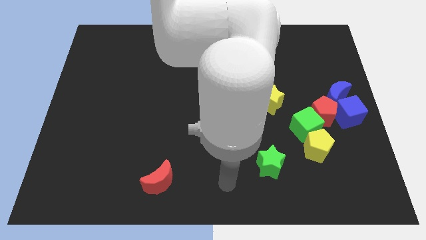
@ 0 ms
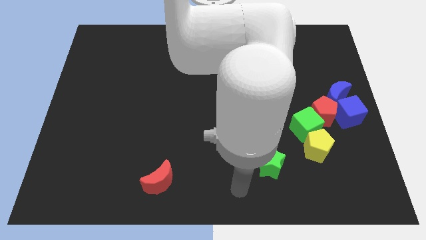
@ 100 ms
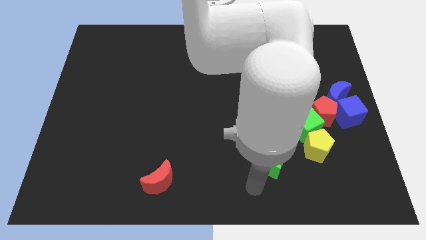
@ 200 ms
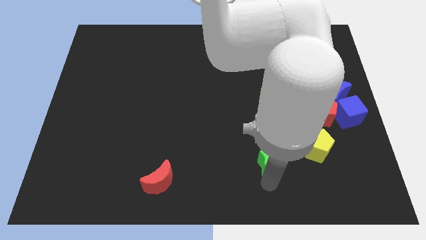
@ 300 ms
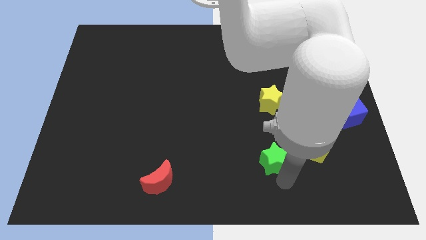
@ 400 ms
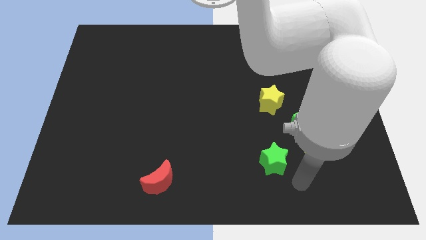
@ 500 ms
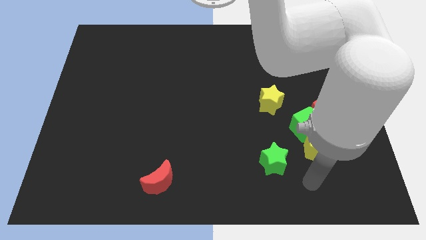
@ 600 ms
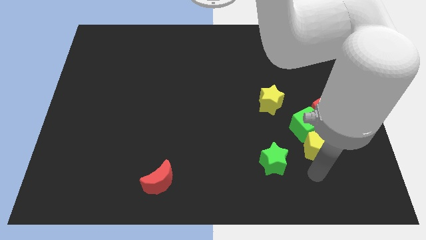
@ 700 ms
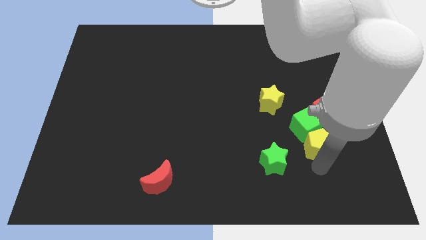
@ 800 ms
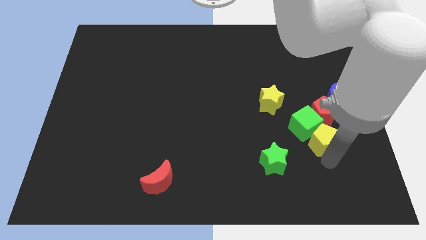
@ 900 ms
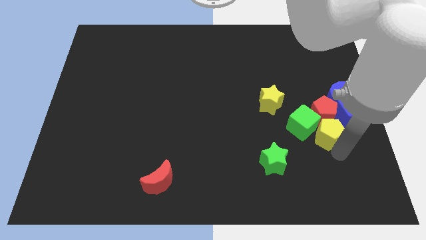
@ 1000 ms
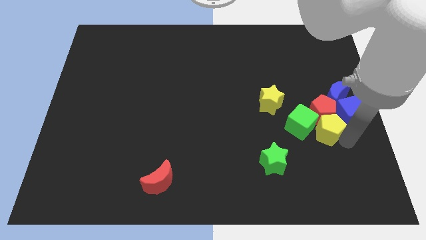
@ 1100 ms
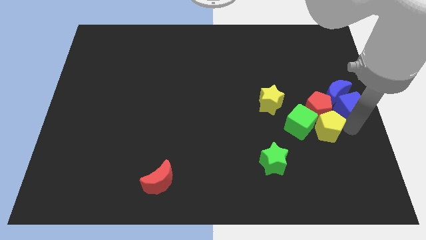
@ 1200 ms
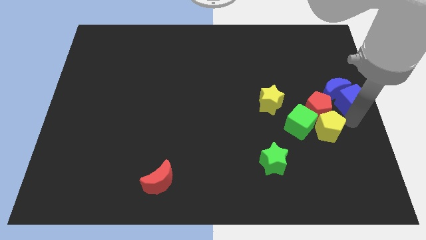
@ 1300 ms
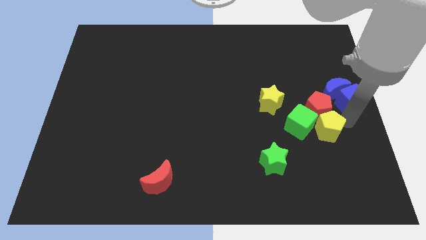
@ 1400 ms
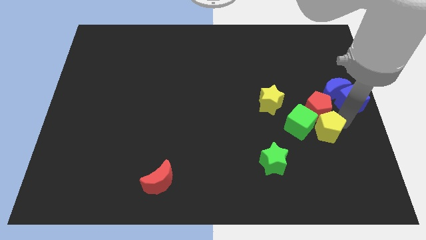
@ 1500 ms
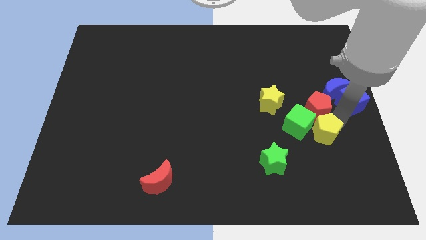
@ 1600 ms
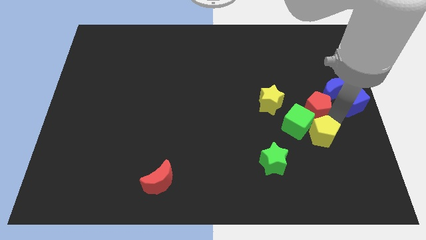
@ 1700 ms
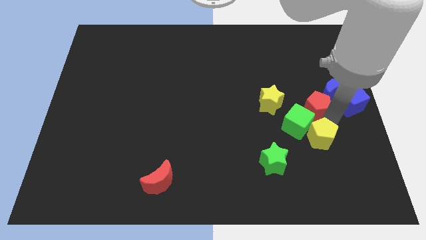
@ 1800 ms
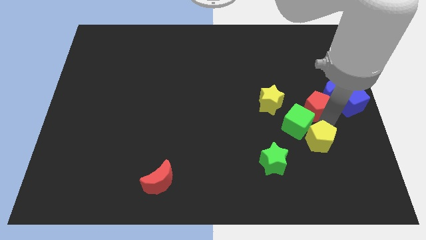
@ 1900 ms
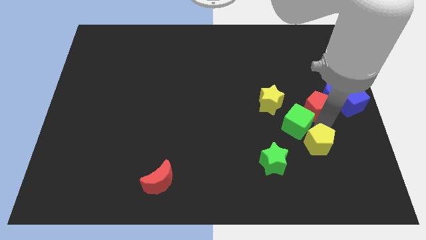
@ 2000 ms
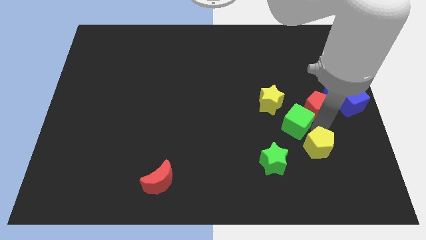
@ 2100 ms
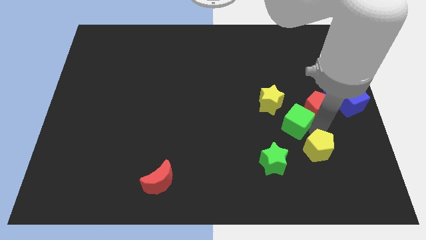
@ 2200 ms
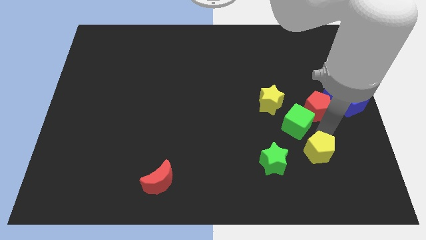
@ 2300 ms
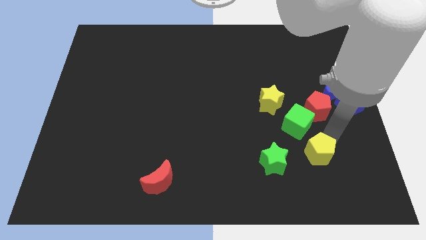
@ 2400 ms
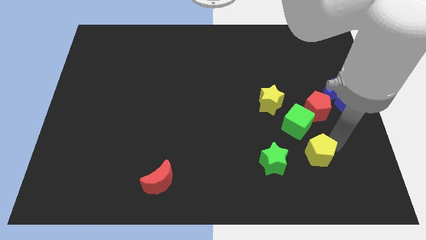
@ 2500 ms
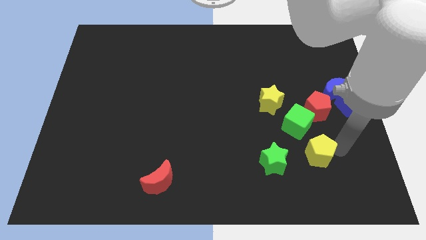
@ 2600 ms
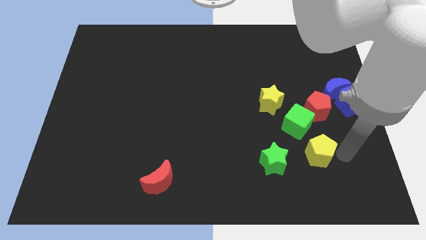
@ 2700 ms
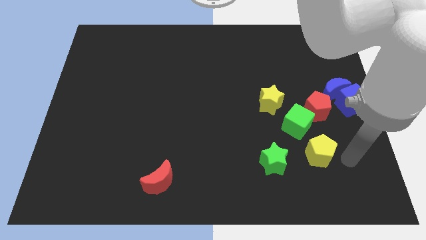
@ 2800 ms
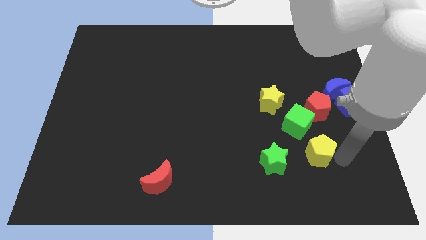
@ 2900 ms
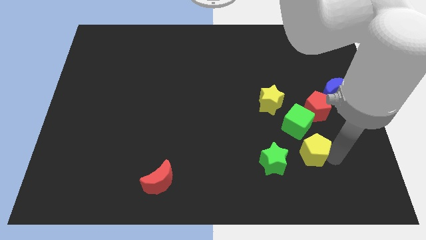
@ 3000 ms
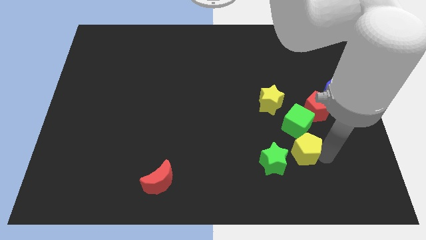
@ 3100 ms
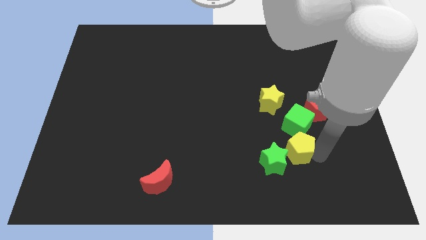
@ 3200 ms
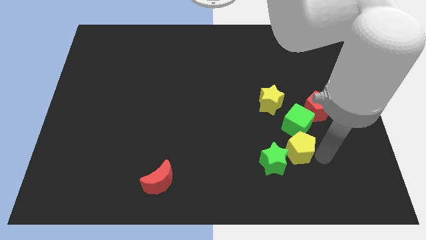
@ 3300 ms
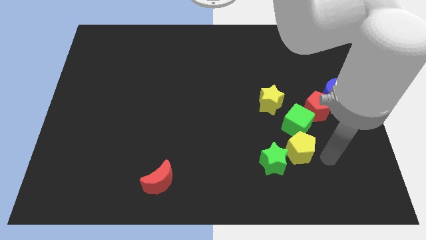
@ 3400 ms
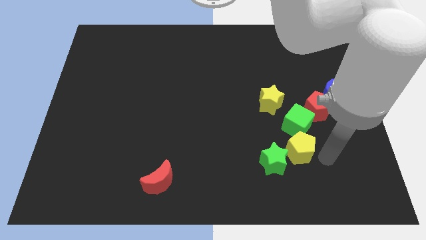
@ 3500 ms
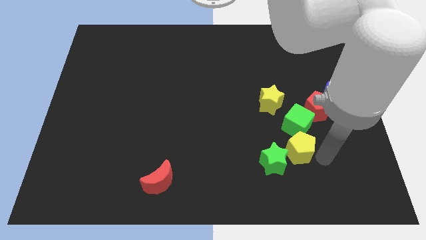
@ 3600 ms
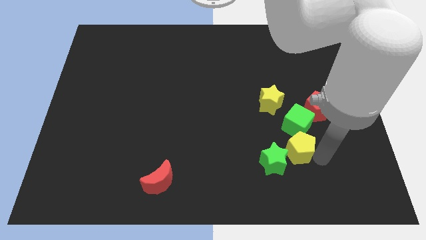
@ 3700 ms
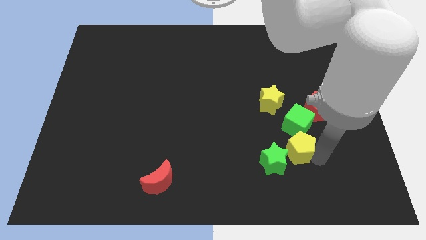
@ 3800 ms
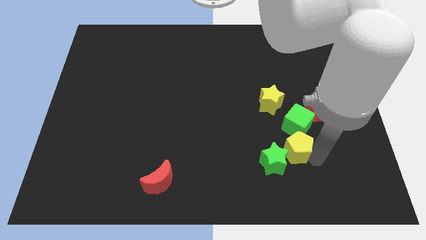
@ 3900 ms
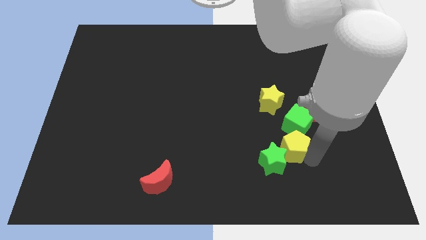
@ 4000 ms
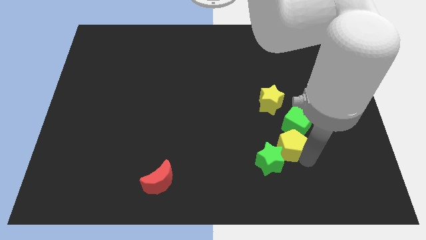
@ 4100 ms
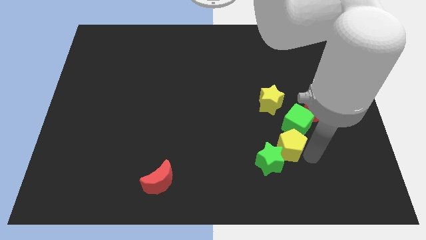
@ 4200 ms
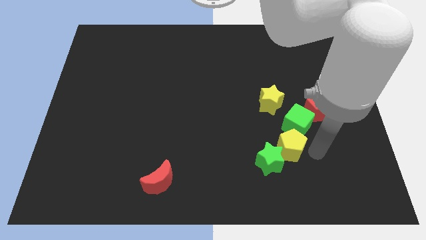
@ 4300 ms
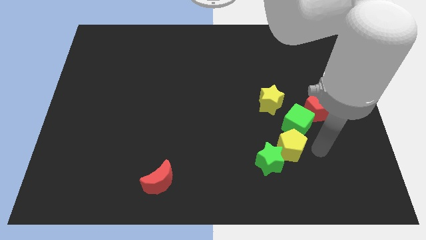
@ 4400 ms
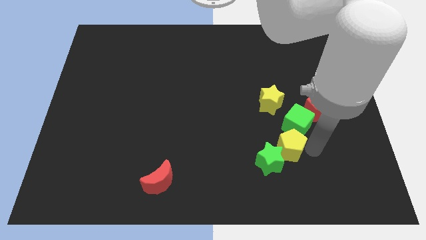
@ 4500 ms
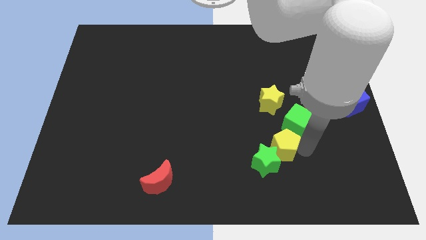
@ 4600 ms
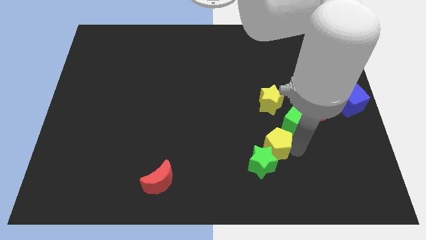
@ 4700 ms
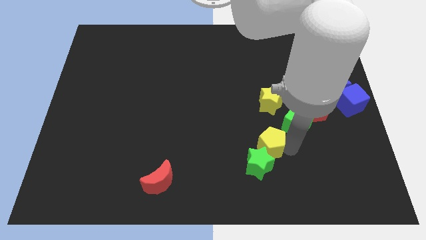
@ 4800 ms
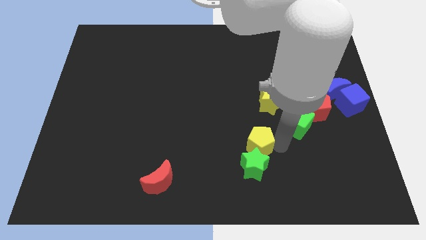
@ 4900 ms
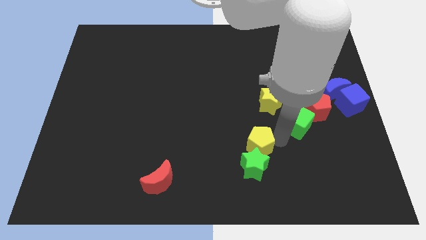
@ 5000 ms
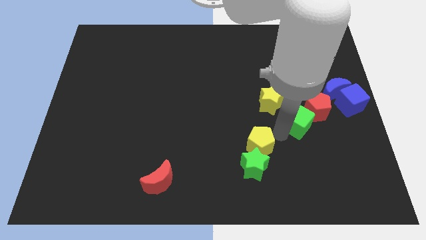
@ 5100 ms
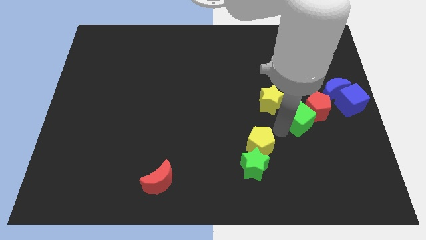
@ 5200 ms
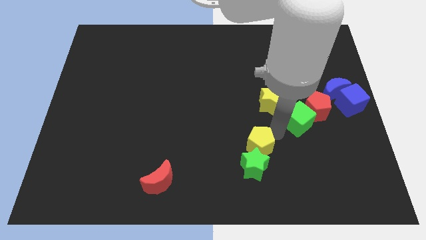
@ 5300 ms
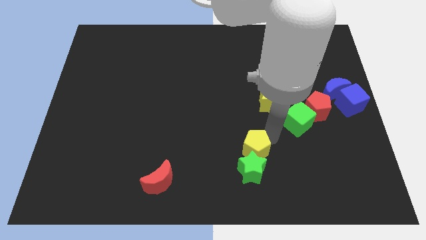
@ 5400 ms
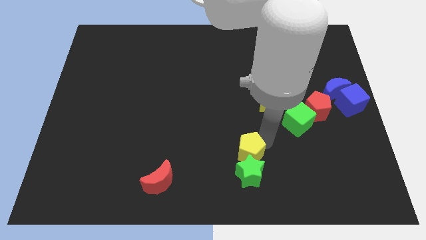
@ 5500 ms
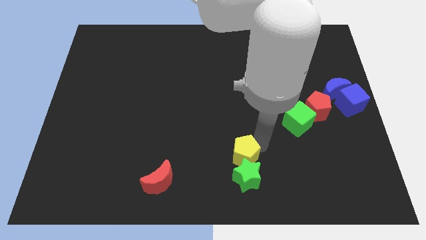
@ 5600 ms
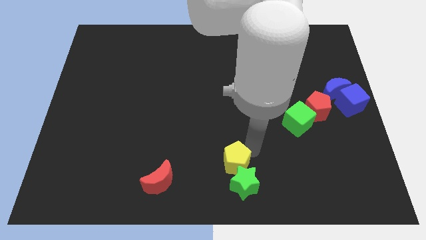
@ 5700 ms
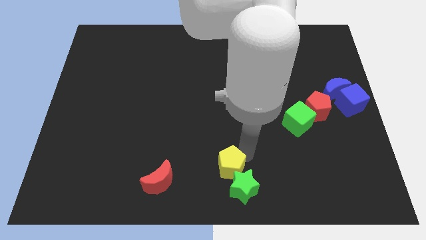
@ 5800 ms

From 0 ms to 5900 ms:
push the yellow pentagon just right of the red moon

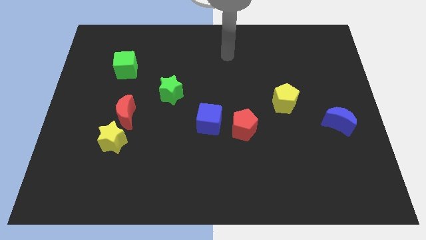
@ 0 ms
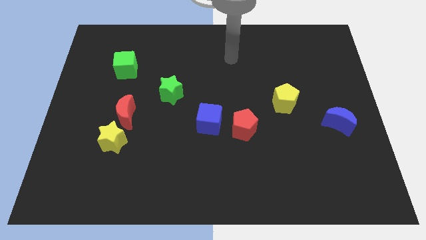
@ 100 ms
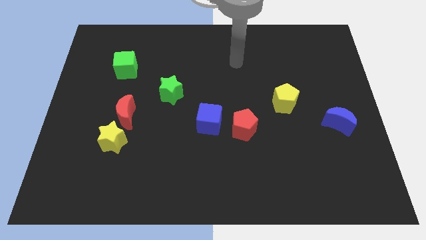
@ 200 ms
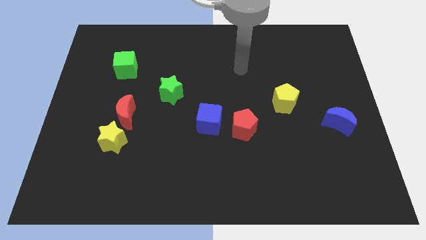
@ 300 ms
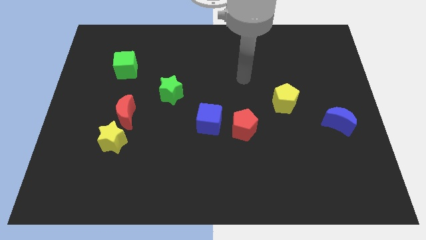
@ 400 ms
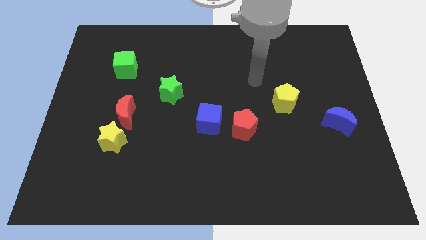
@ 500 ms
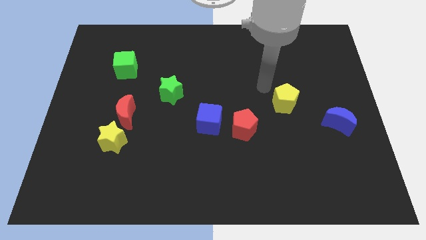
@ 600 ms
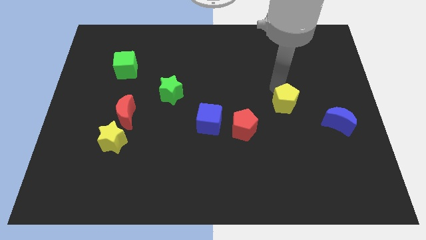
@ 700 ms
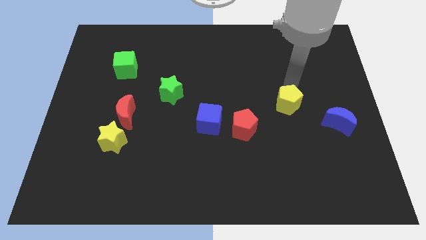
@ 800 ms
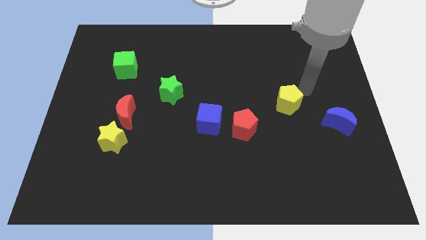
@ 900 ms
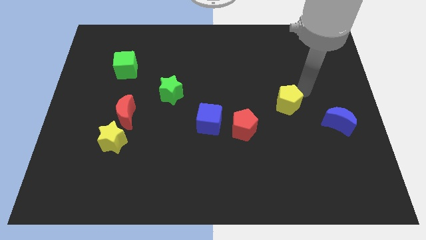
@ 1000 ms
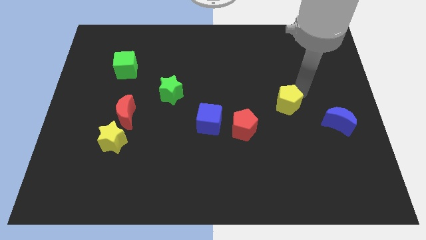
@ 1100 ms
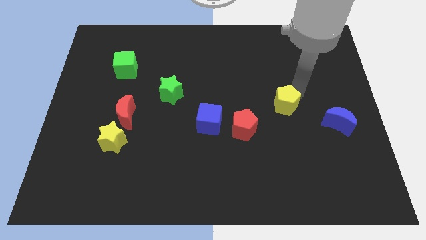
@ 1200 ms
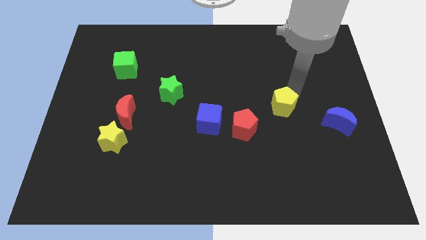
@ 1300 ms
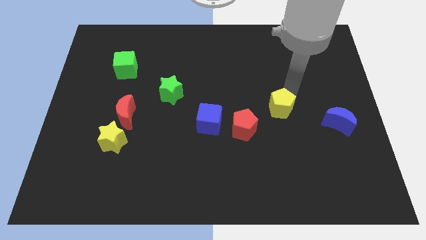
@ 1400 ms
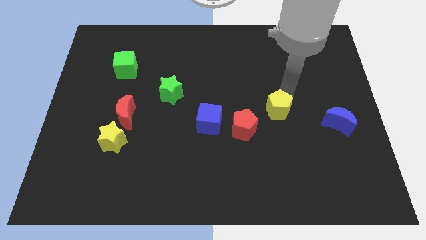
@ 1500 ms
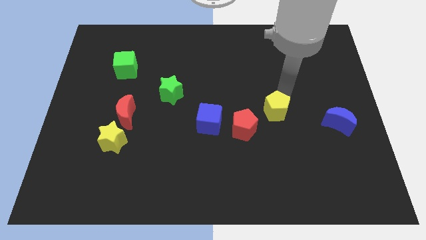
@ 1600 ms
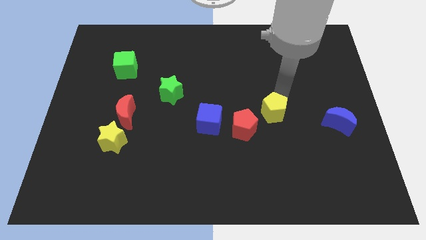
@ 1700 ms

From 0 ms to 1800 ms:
put the yellow pentagon to the right side of the blue cube

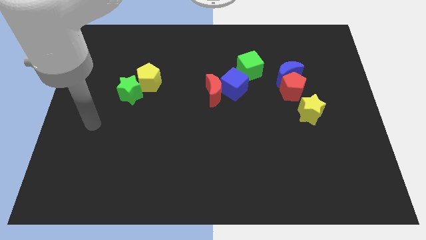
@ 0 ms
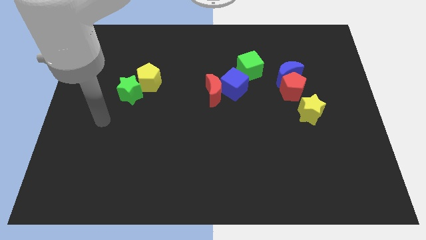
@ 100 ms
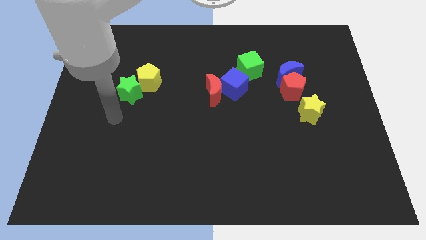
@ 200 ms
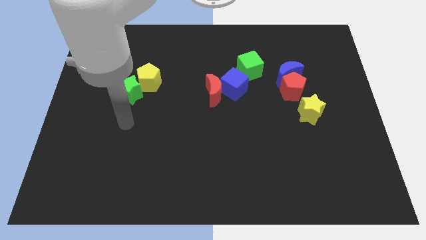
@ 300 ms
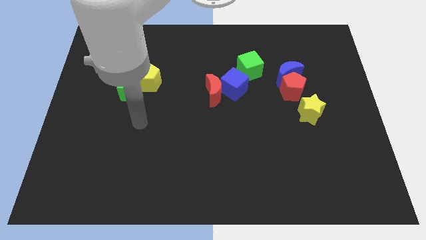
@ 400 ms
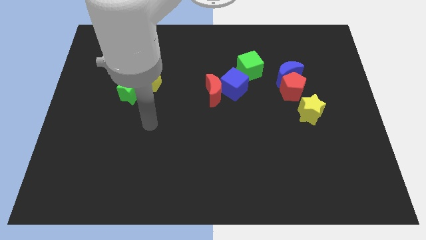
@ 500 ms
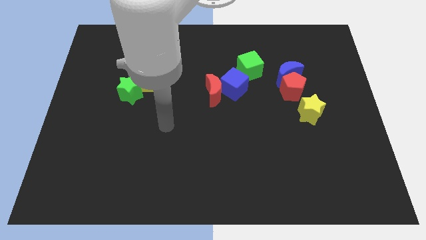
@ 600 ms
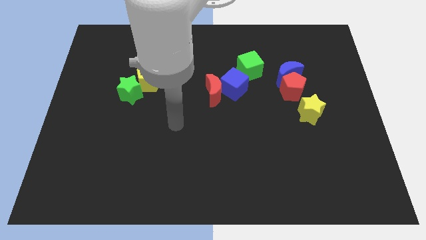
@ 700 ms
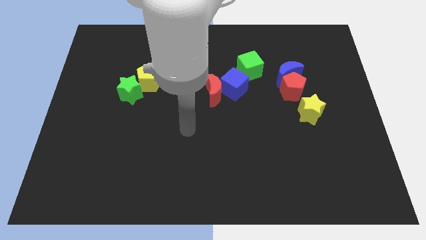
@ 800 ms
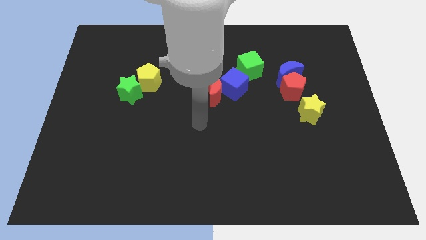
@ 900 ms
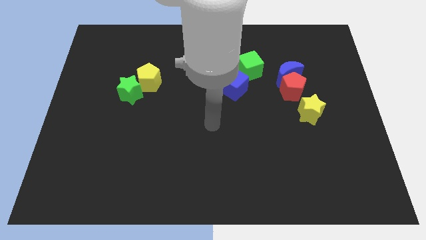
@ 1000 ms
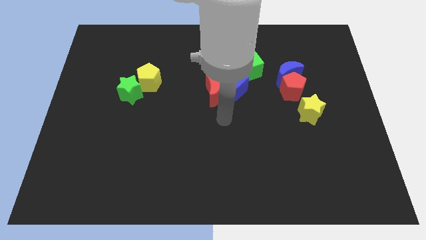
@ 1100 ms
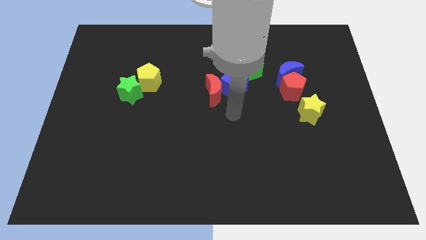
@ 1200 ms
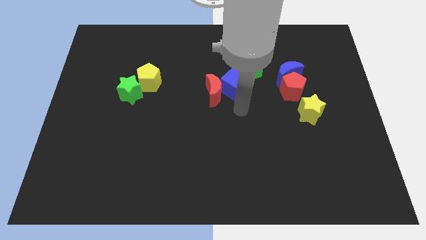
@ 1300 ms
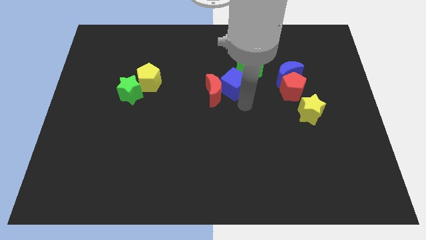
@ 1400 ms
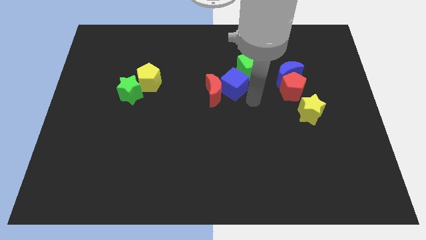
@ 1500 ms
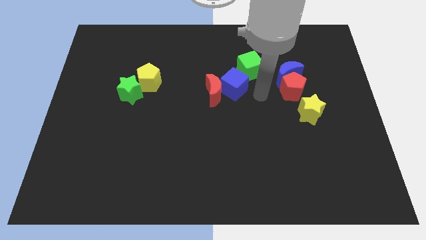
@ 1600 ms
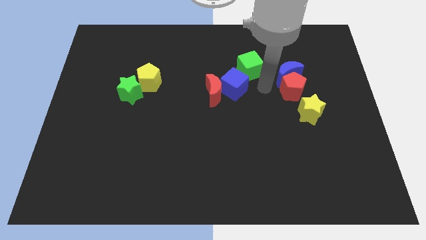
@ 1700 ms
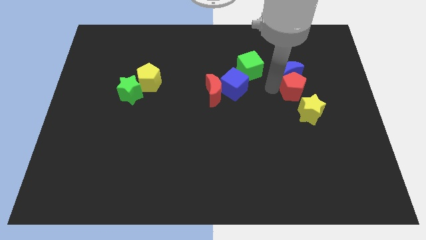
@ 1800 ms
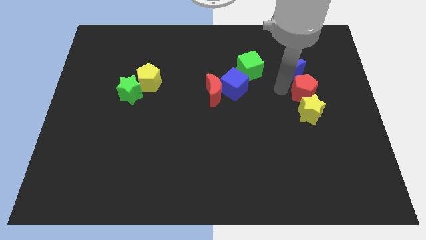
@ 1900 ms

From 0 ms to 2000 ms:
slide the red pentagon to the top right of the yellow star
